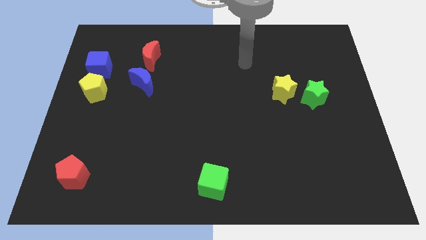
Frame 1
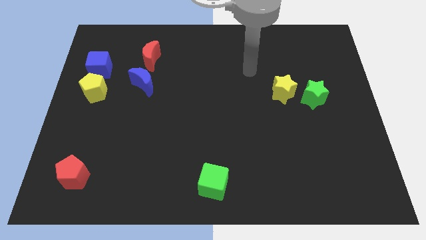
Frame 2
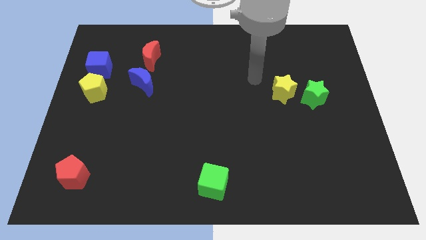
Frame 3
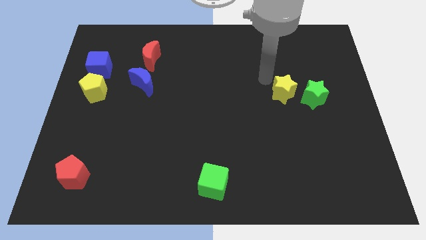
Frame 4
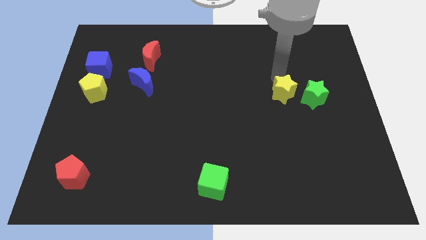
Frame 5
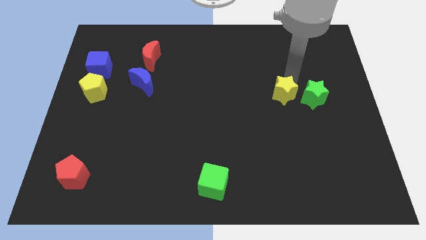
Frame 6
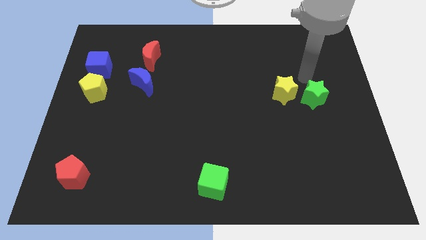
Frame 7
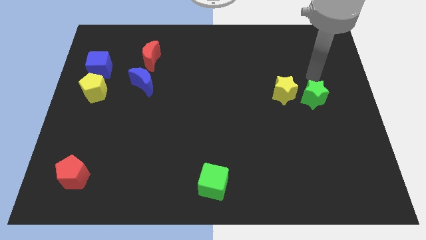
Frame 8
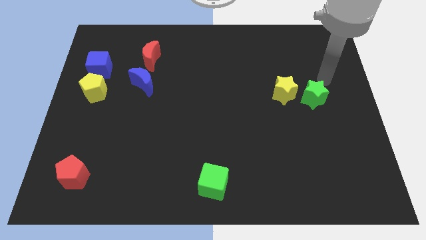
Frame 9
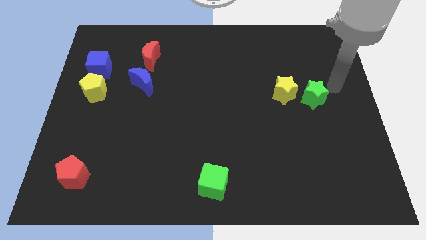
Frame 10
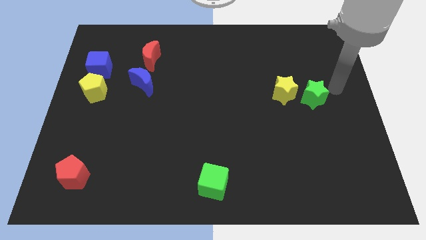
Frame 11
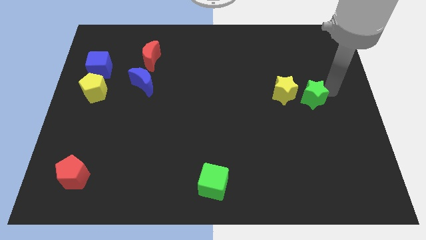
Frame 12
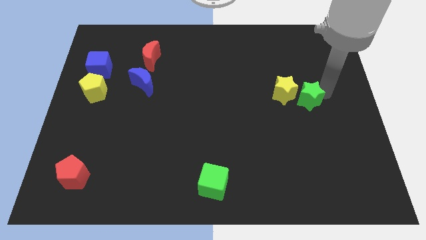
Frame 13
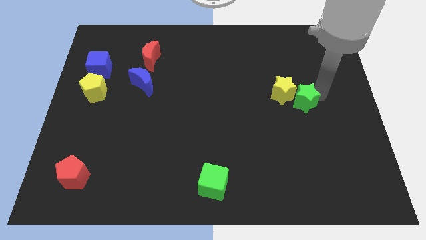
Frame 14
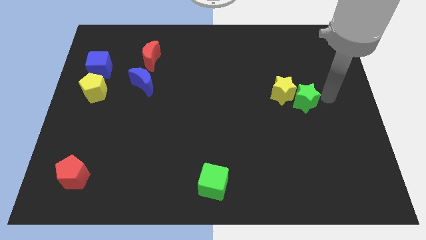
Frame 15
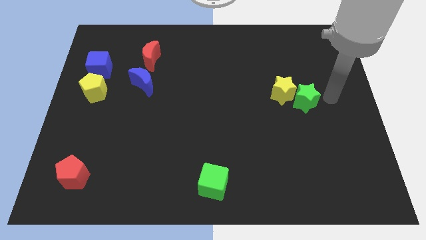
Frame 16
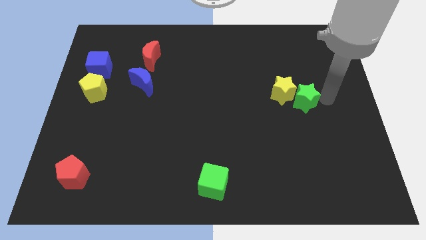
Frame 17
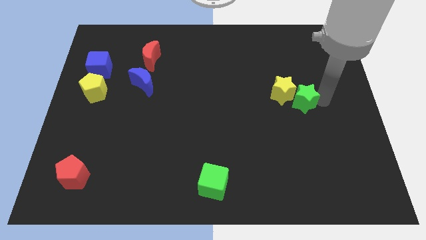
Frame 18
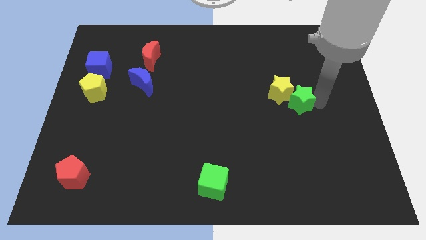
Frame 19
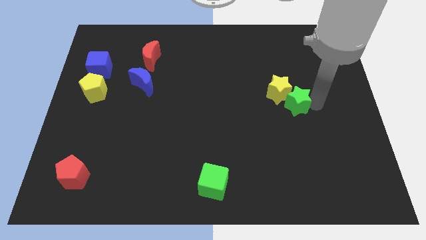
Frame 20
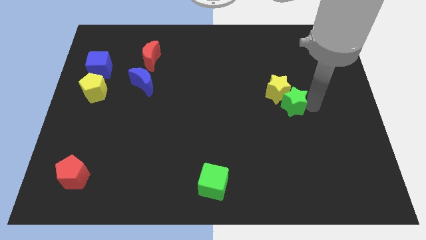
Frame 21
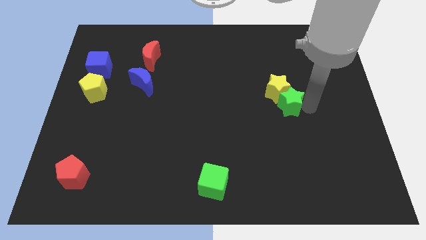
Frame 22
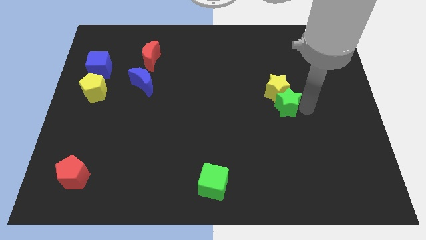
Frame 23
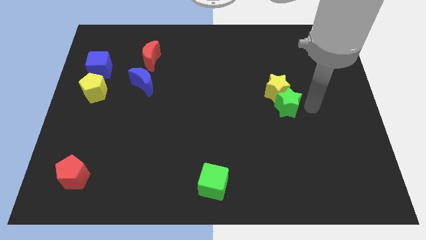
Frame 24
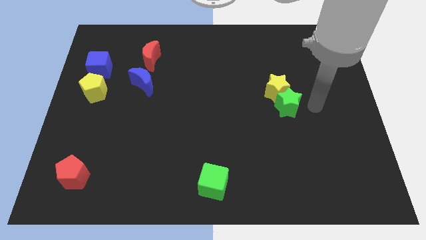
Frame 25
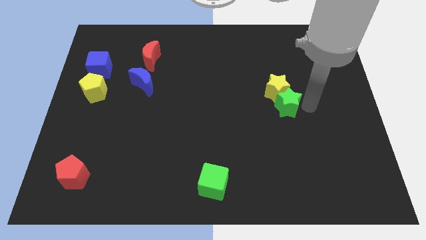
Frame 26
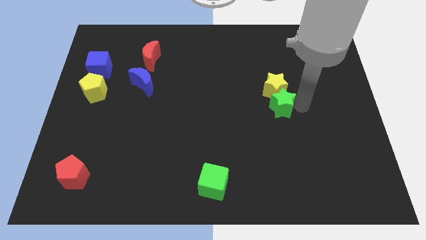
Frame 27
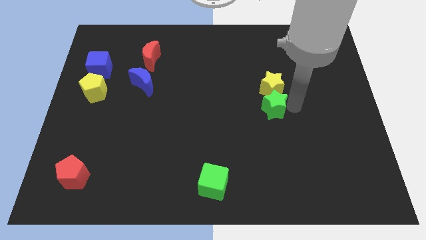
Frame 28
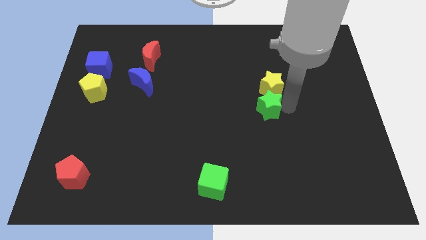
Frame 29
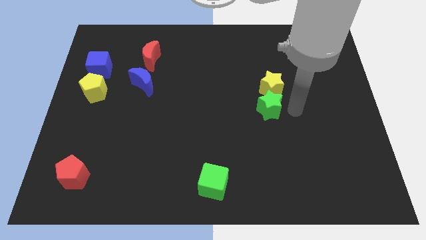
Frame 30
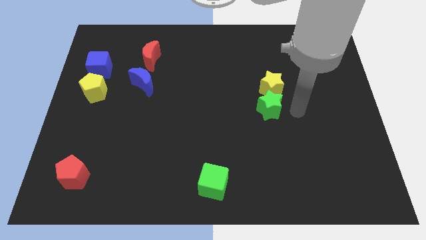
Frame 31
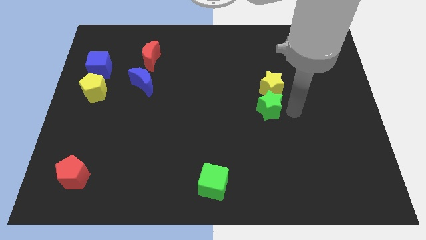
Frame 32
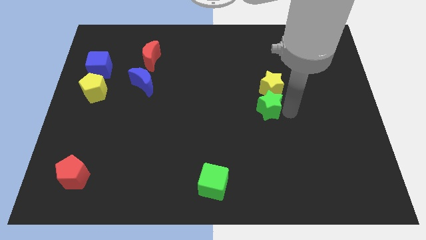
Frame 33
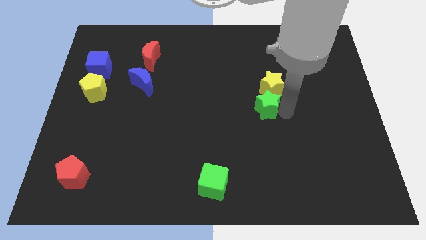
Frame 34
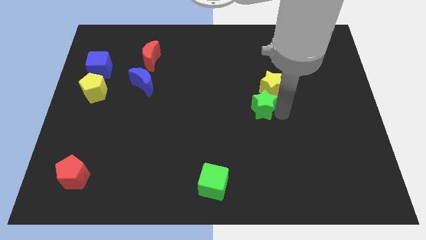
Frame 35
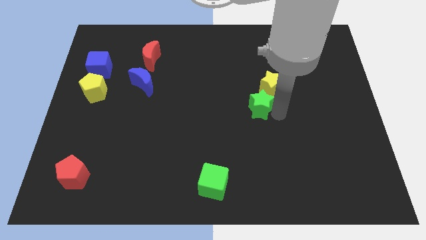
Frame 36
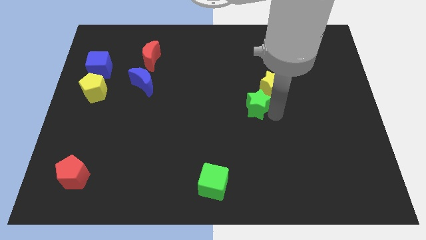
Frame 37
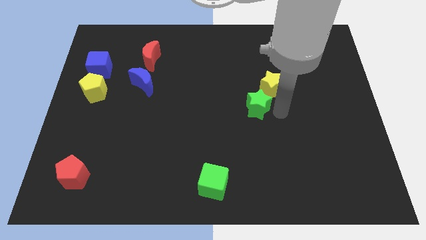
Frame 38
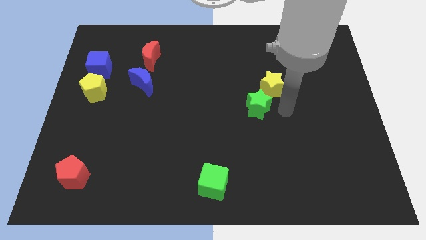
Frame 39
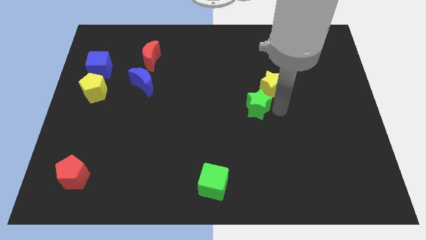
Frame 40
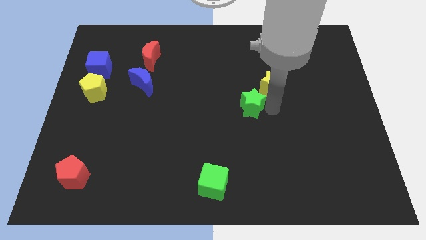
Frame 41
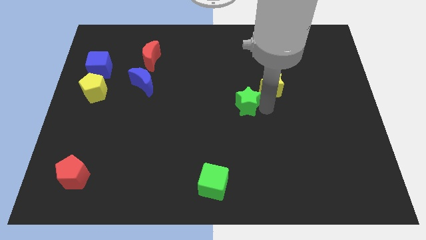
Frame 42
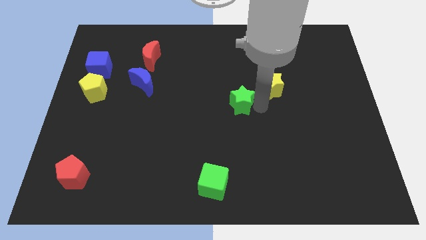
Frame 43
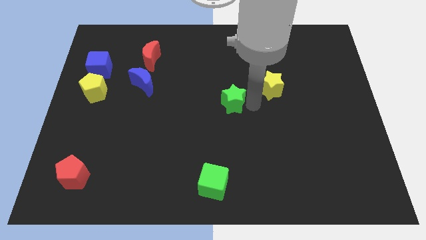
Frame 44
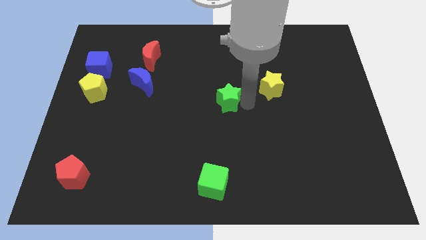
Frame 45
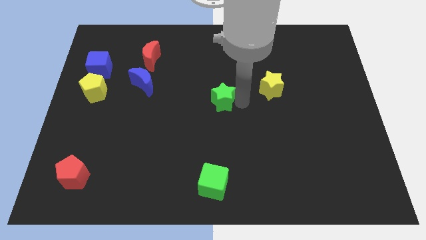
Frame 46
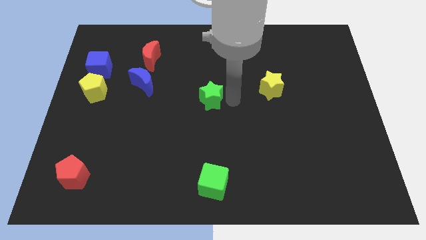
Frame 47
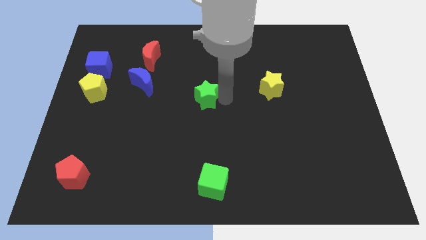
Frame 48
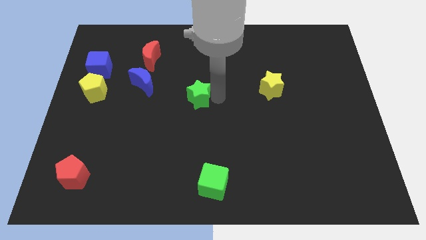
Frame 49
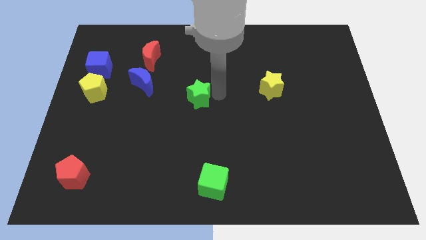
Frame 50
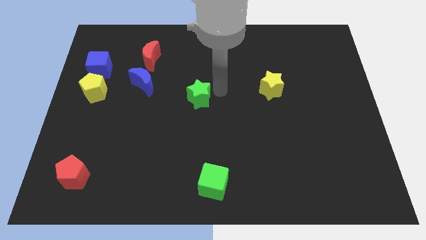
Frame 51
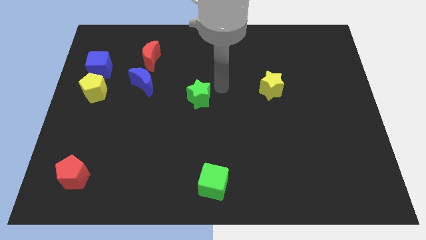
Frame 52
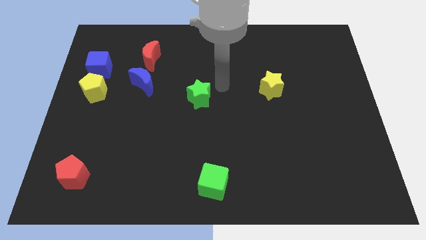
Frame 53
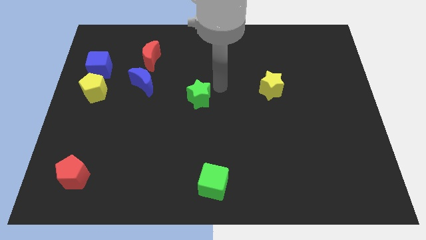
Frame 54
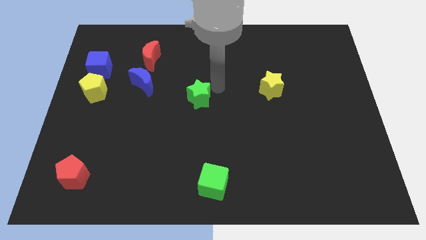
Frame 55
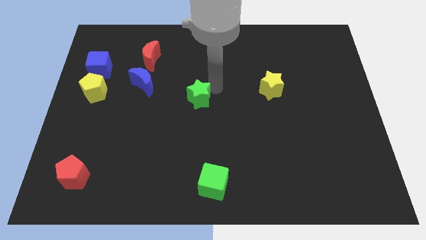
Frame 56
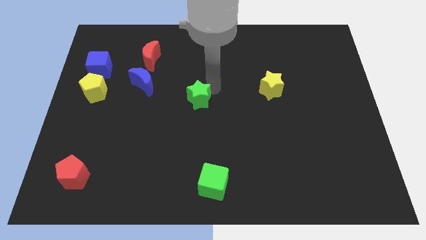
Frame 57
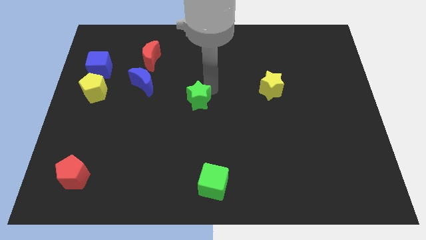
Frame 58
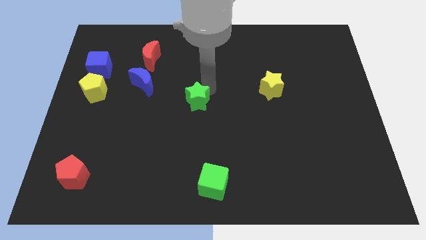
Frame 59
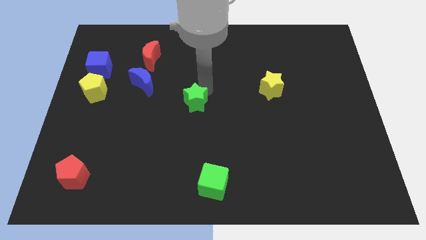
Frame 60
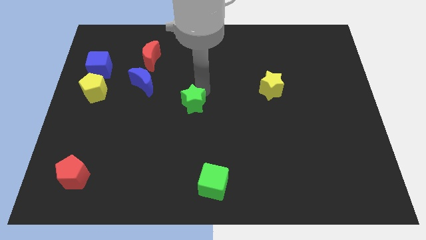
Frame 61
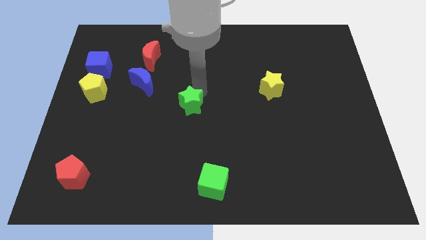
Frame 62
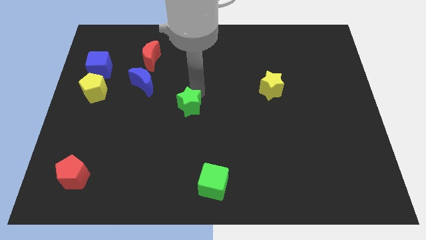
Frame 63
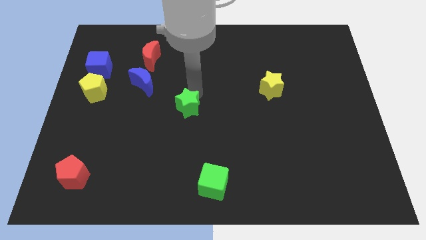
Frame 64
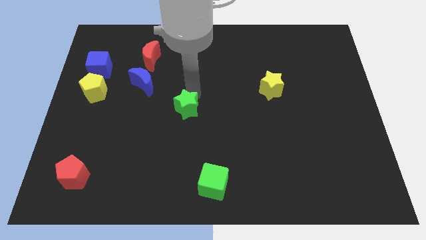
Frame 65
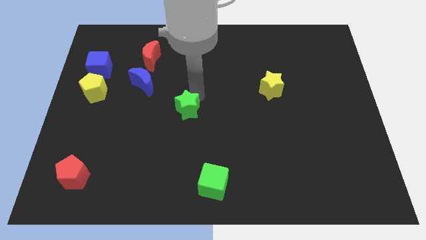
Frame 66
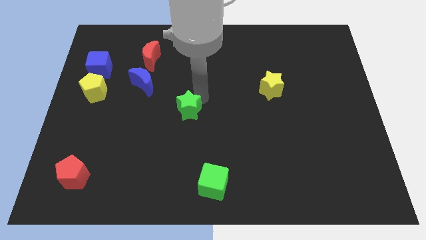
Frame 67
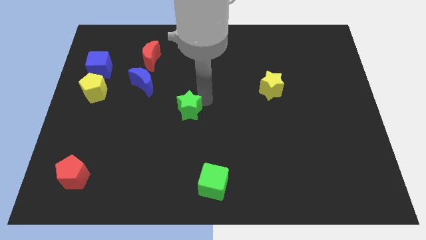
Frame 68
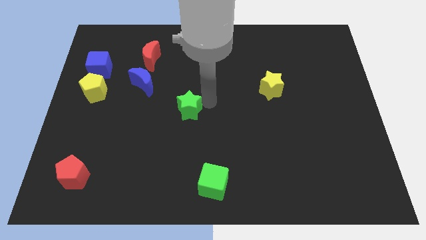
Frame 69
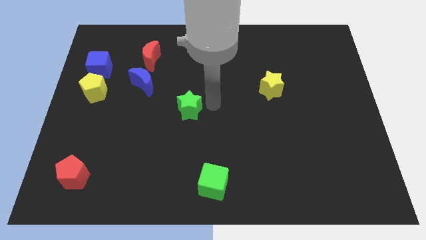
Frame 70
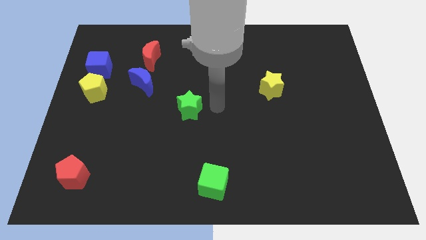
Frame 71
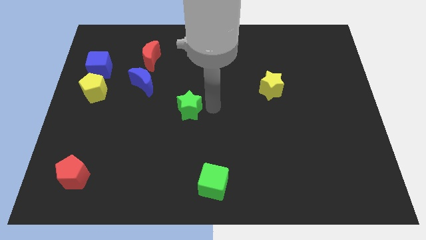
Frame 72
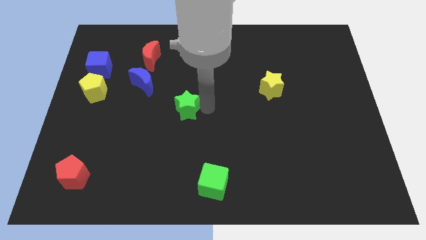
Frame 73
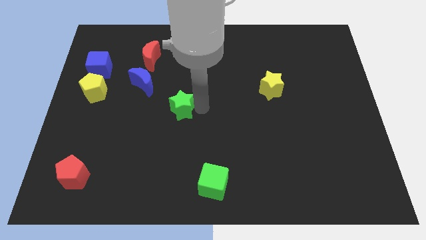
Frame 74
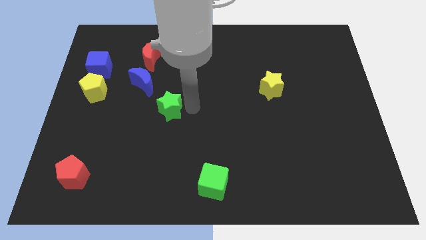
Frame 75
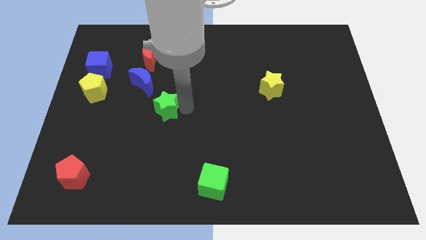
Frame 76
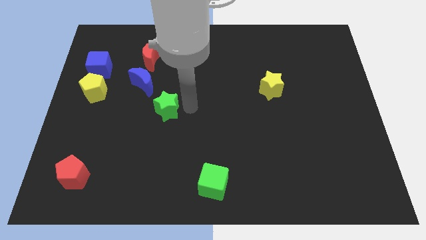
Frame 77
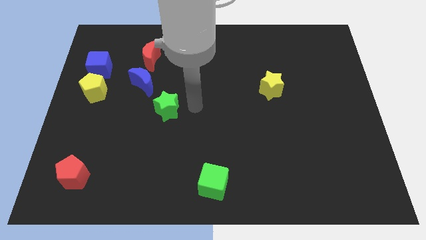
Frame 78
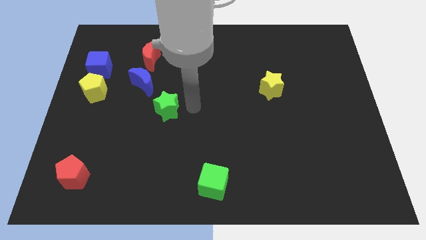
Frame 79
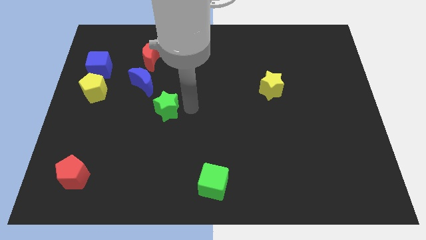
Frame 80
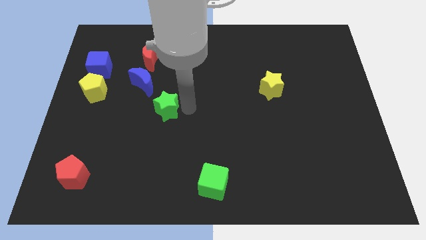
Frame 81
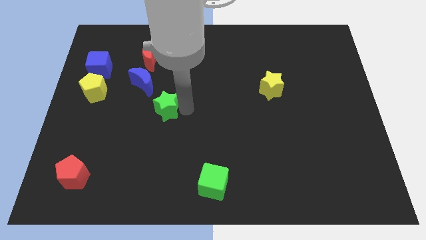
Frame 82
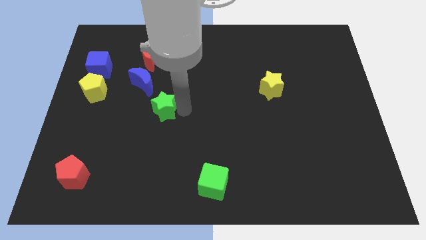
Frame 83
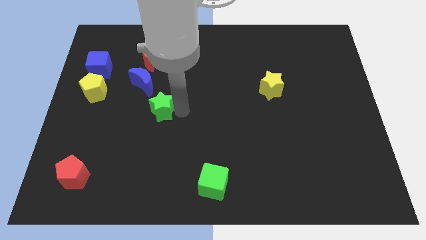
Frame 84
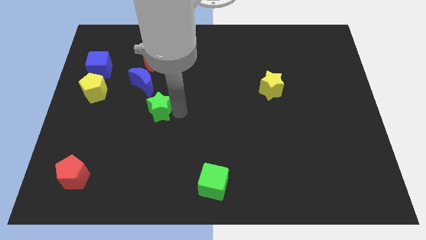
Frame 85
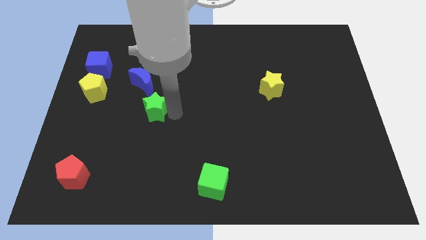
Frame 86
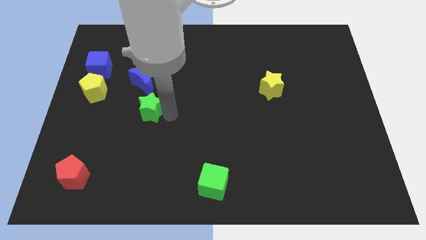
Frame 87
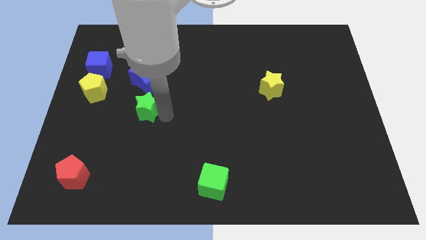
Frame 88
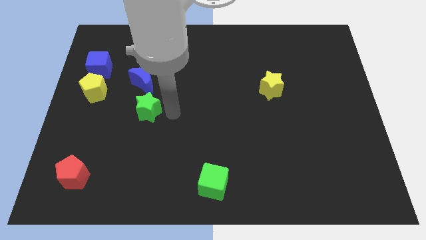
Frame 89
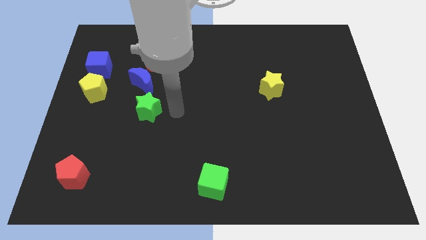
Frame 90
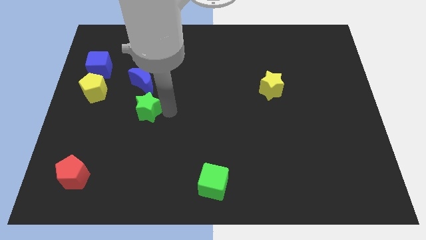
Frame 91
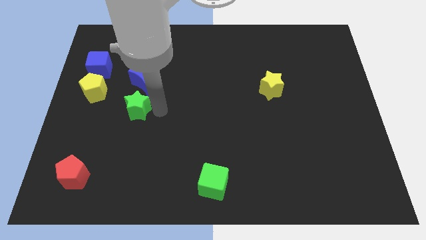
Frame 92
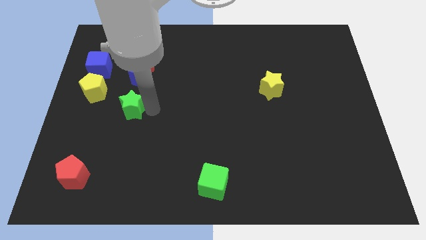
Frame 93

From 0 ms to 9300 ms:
push the green star diagonally down and to the right of the yellow pentagon
